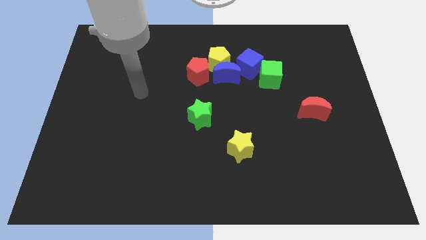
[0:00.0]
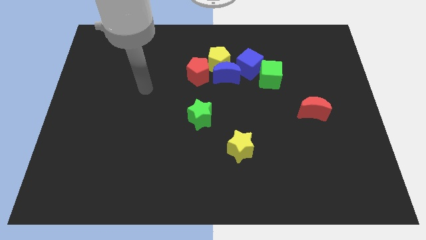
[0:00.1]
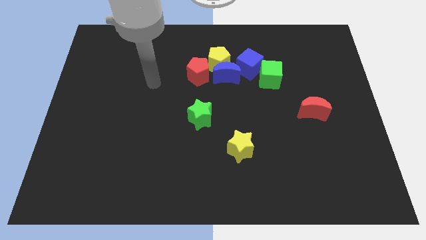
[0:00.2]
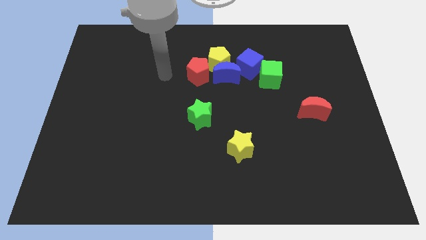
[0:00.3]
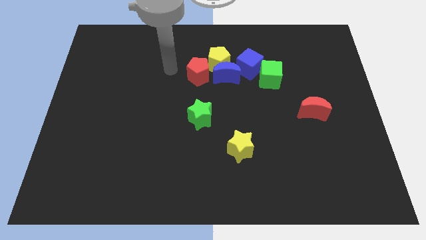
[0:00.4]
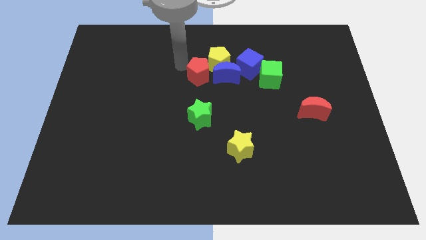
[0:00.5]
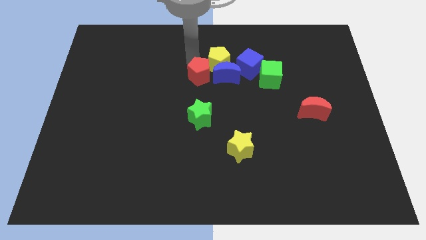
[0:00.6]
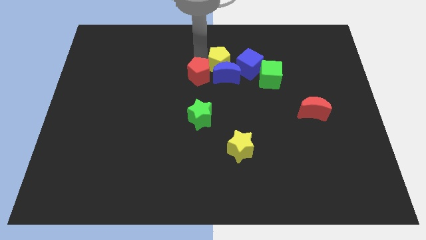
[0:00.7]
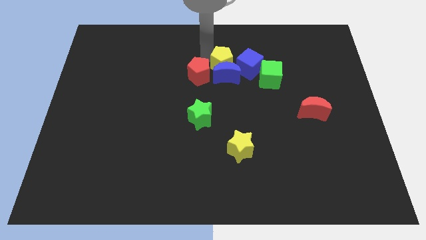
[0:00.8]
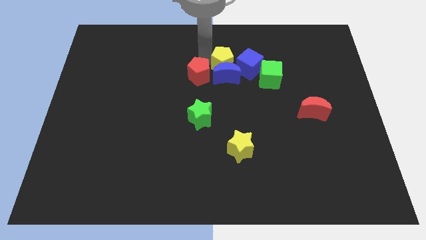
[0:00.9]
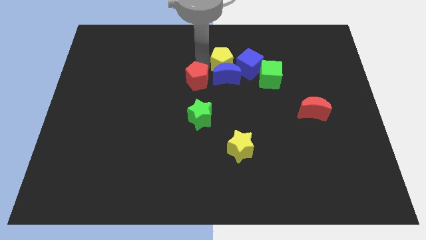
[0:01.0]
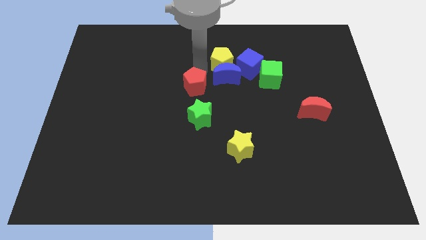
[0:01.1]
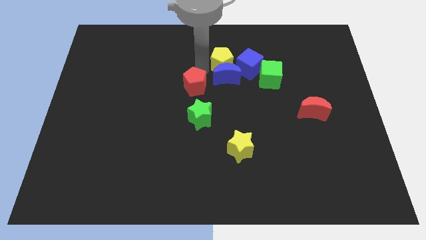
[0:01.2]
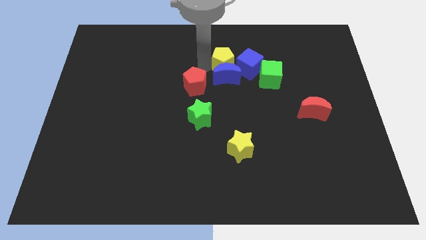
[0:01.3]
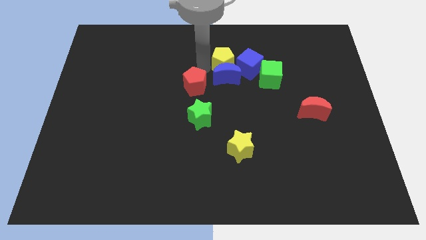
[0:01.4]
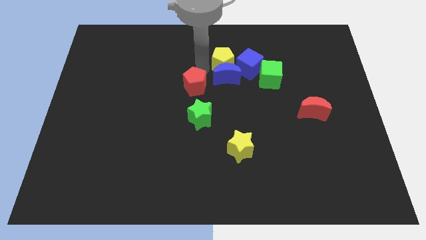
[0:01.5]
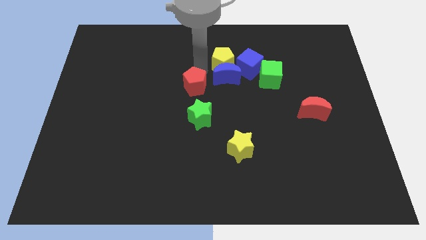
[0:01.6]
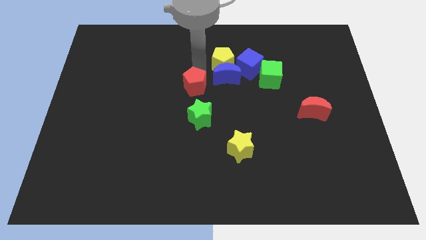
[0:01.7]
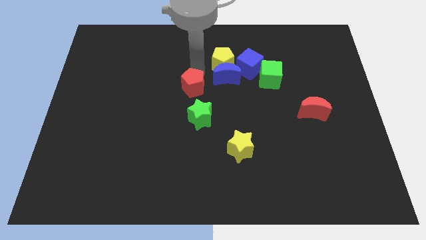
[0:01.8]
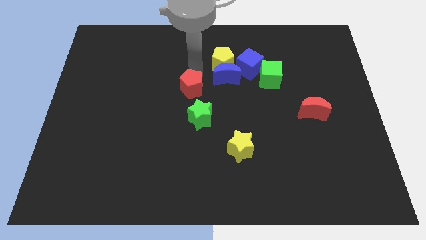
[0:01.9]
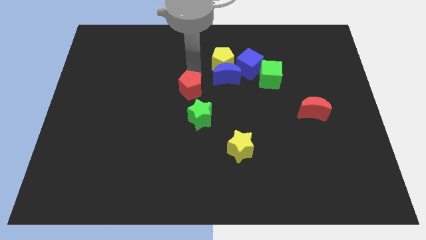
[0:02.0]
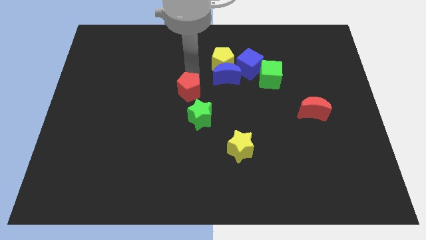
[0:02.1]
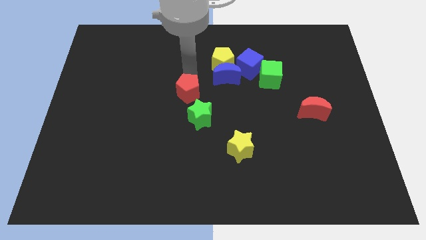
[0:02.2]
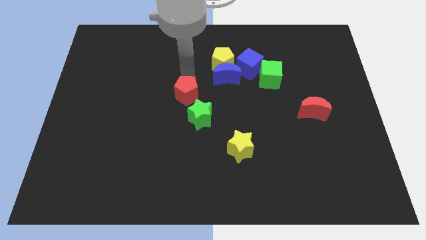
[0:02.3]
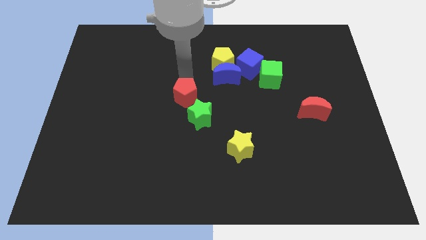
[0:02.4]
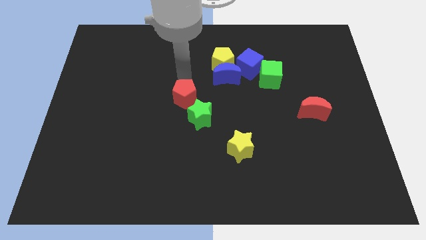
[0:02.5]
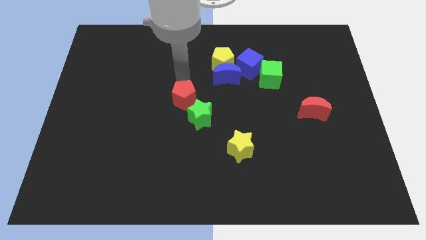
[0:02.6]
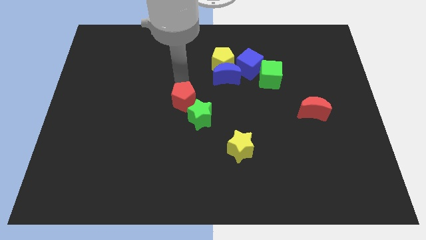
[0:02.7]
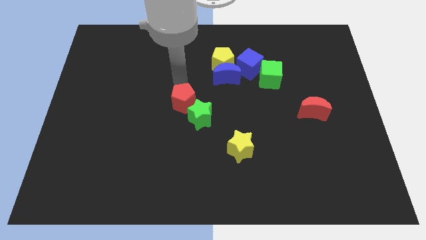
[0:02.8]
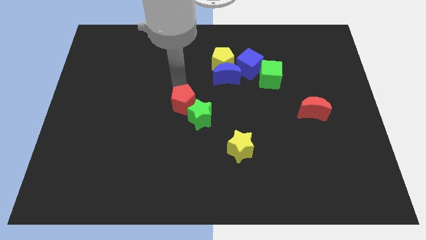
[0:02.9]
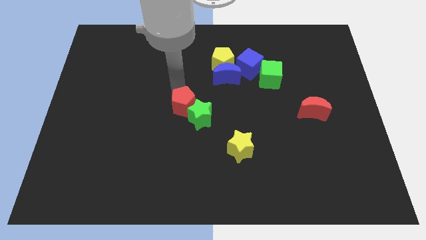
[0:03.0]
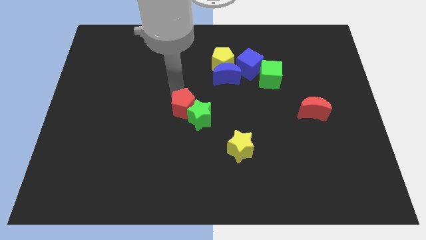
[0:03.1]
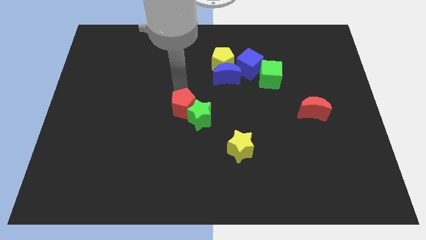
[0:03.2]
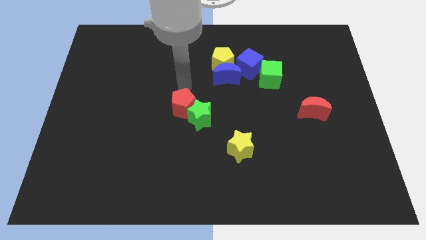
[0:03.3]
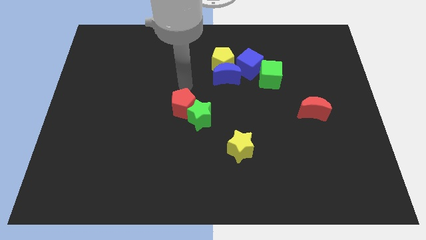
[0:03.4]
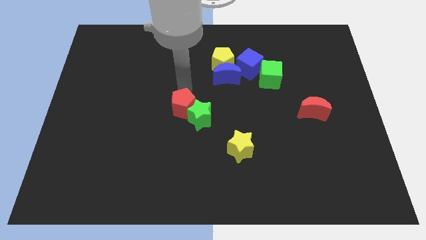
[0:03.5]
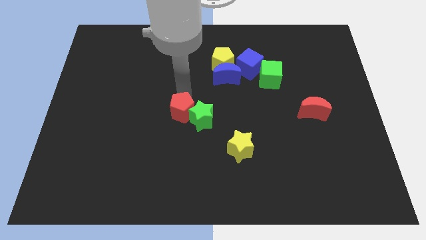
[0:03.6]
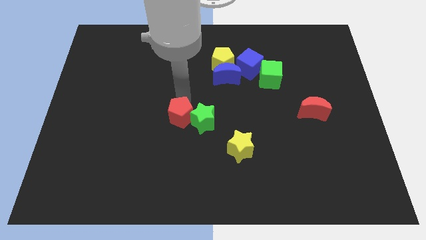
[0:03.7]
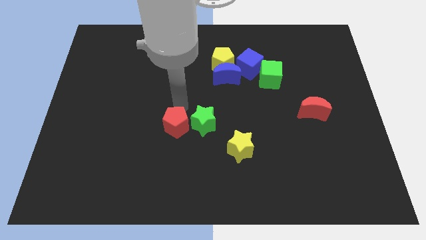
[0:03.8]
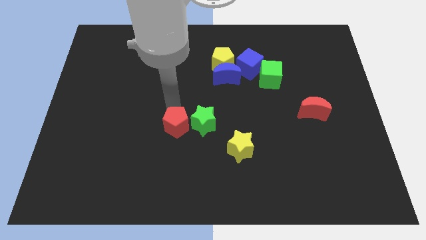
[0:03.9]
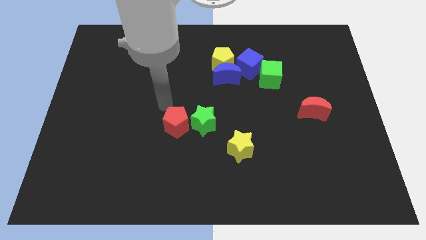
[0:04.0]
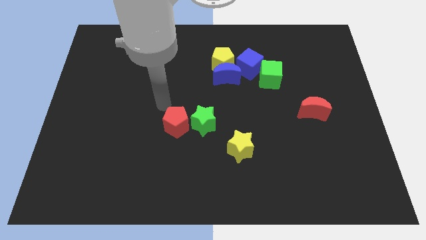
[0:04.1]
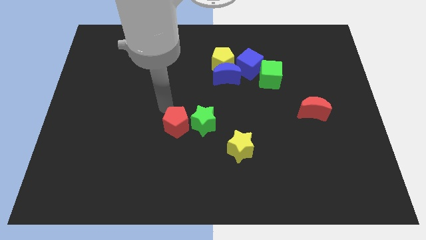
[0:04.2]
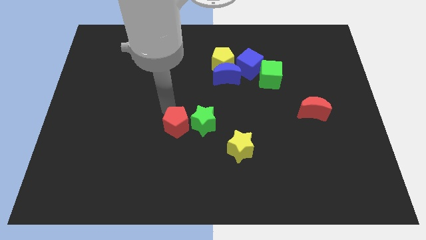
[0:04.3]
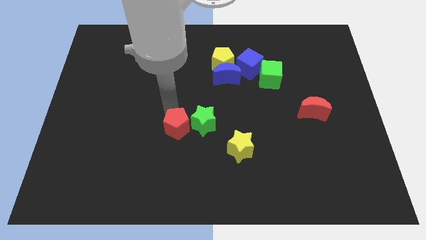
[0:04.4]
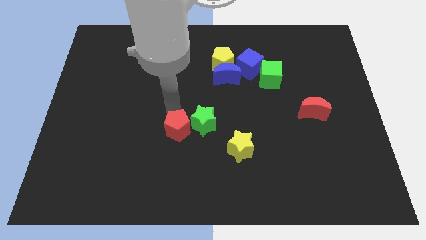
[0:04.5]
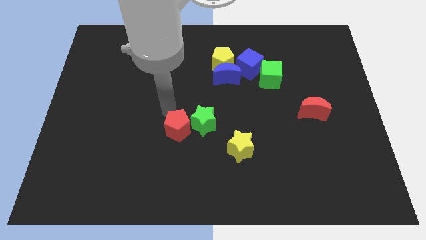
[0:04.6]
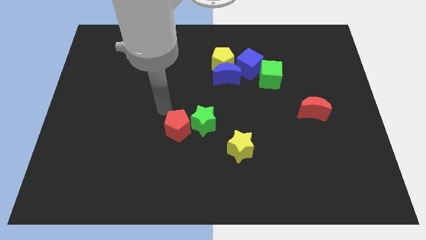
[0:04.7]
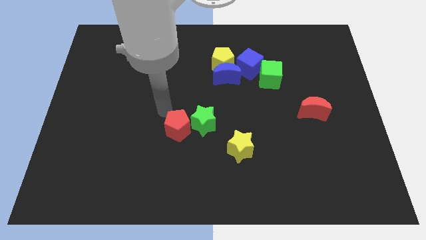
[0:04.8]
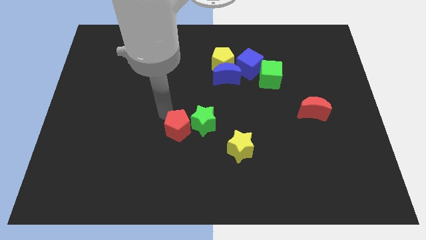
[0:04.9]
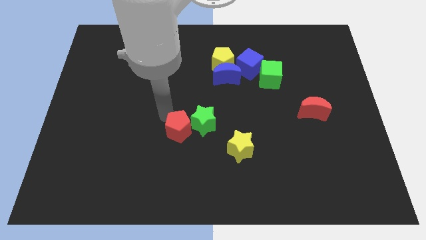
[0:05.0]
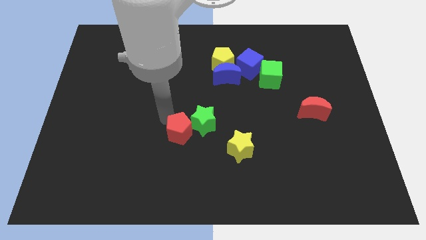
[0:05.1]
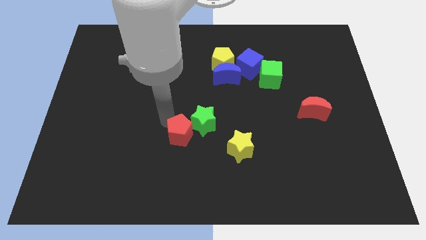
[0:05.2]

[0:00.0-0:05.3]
slide the red pentagon just left of the yellow star

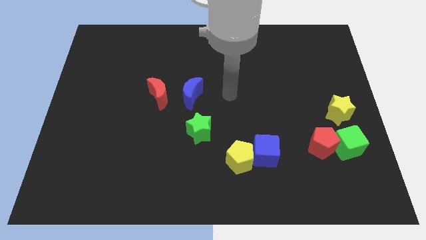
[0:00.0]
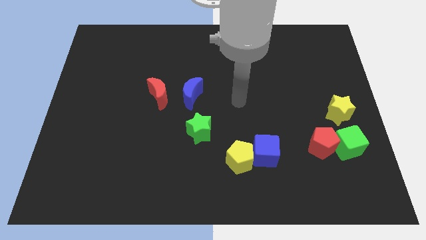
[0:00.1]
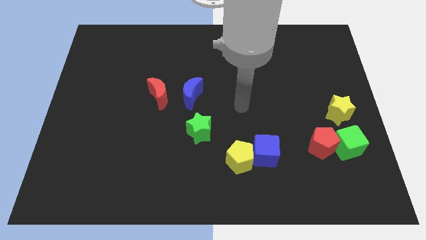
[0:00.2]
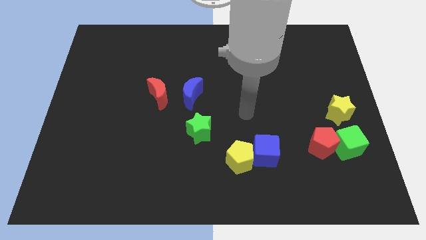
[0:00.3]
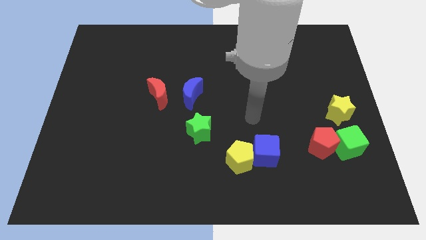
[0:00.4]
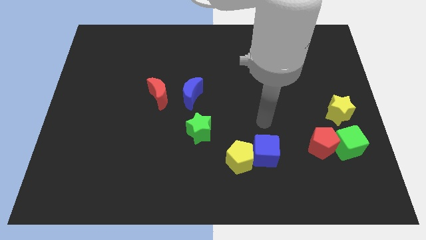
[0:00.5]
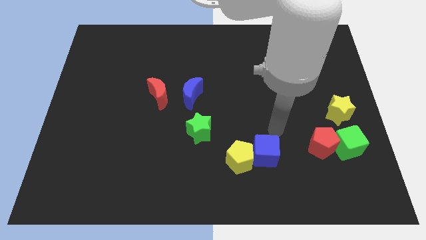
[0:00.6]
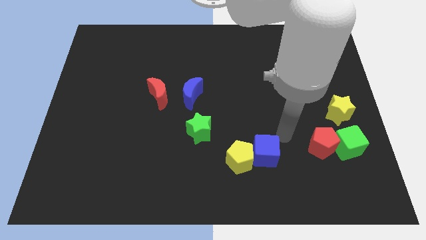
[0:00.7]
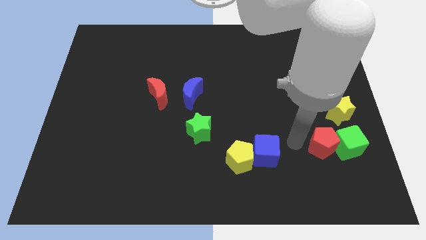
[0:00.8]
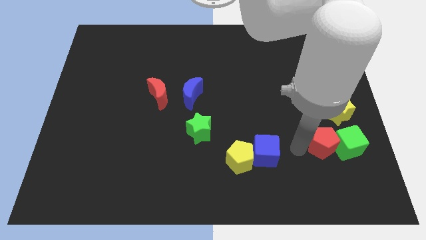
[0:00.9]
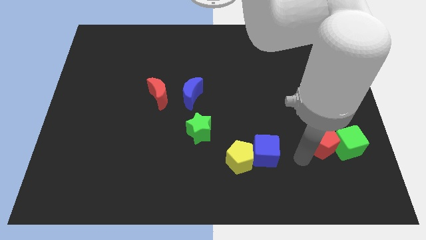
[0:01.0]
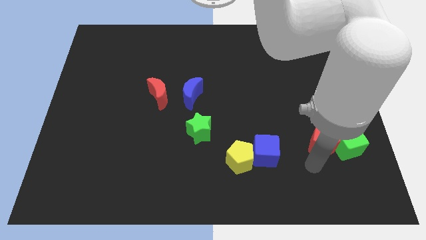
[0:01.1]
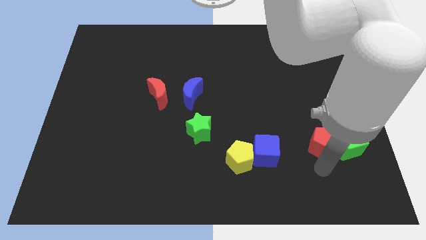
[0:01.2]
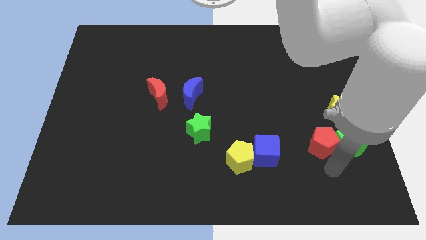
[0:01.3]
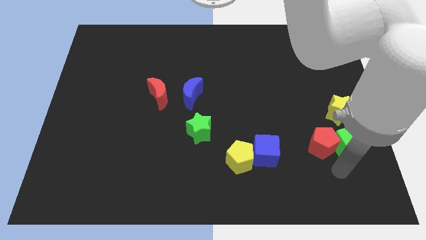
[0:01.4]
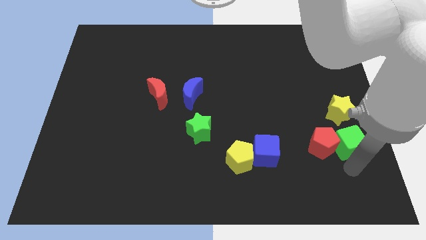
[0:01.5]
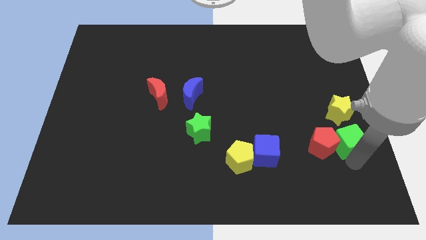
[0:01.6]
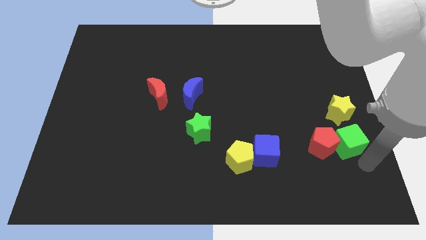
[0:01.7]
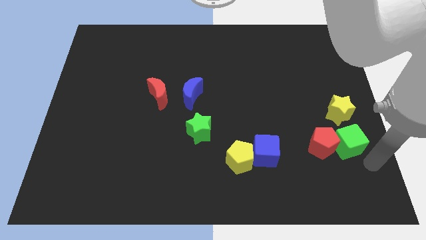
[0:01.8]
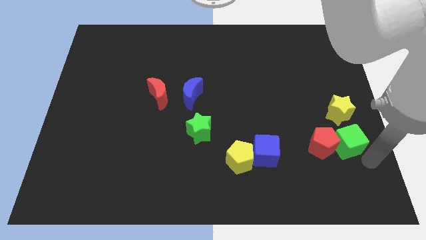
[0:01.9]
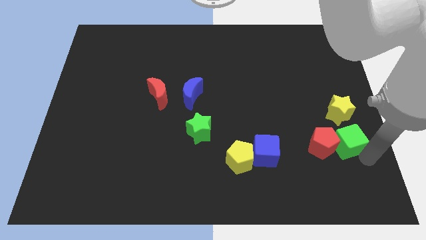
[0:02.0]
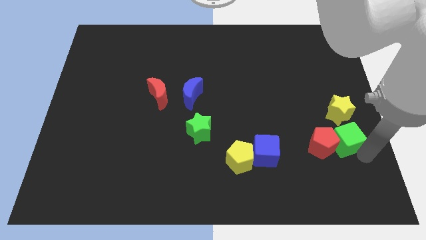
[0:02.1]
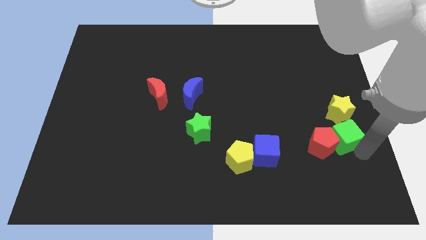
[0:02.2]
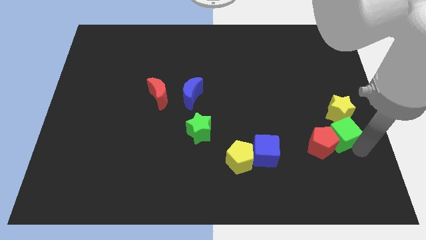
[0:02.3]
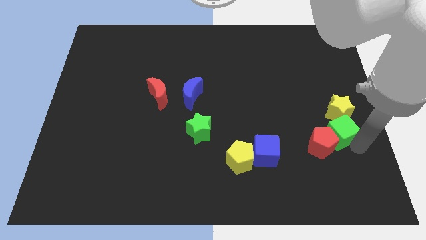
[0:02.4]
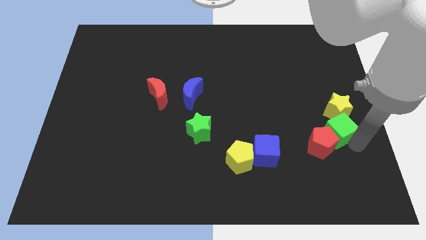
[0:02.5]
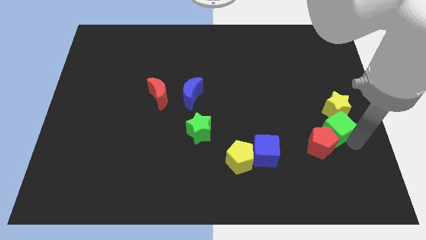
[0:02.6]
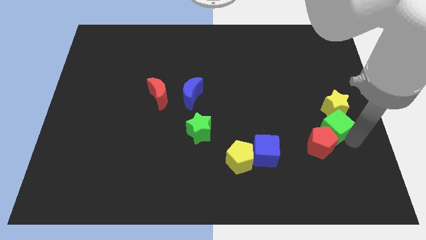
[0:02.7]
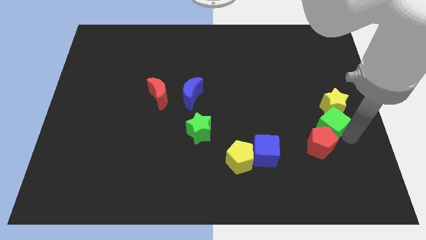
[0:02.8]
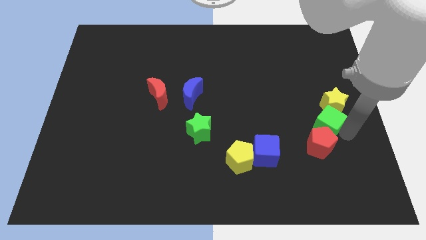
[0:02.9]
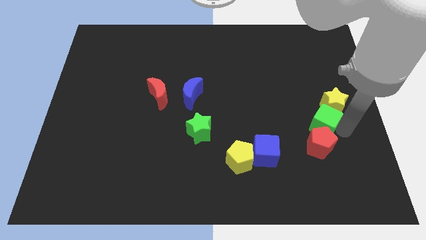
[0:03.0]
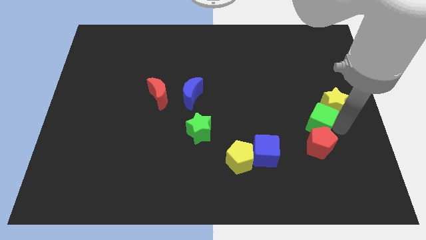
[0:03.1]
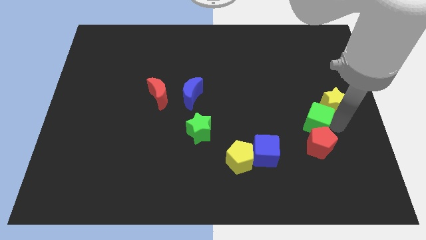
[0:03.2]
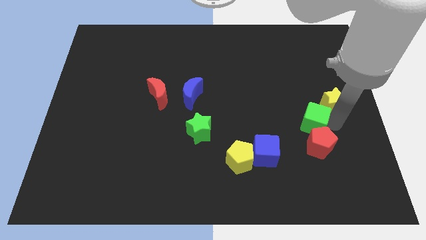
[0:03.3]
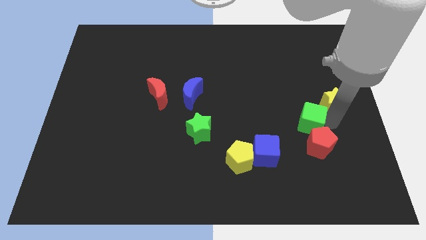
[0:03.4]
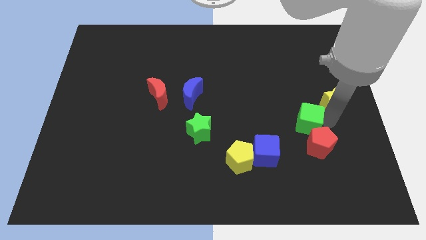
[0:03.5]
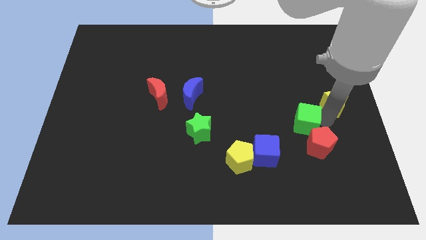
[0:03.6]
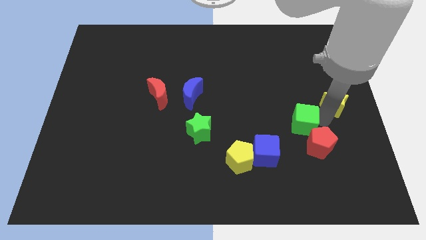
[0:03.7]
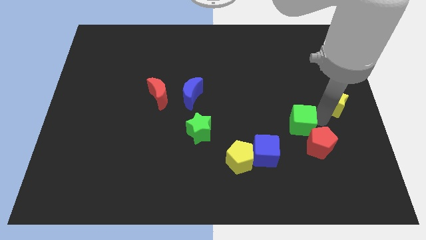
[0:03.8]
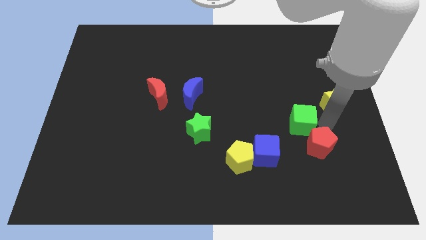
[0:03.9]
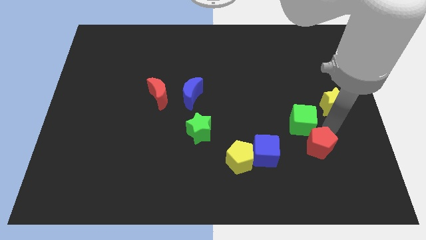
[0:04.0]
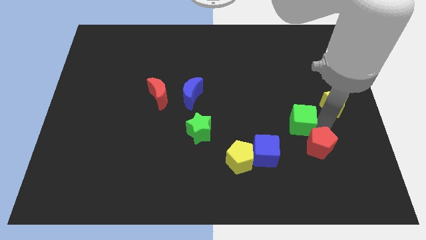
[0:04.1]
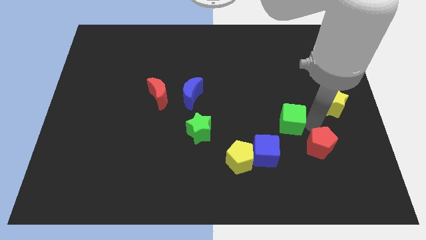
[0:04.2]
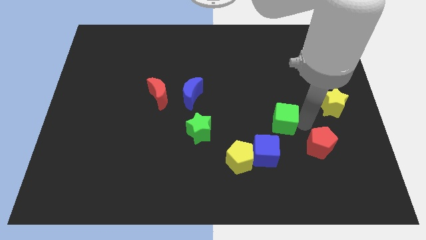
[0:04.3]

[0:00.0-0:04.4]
move the green cube to the top side of the blue cube
